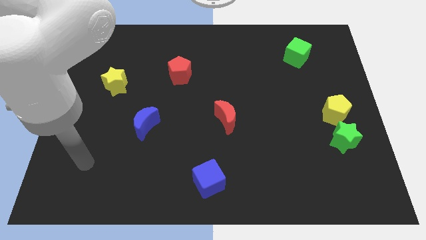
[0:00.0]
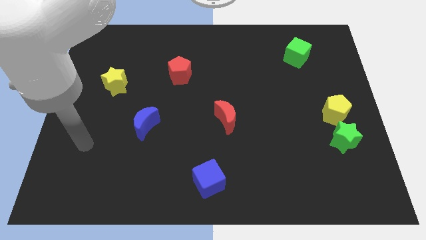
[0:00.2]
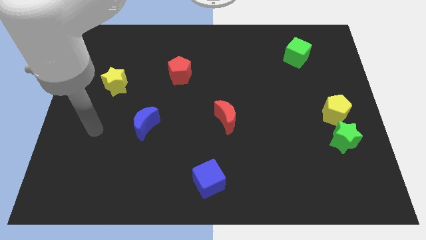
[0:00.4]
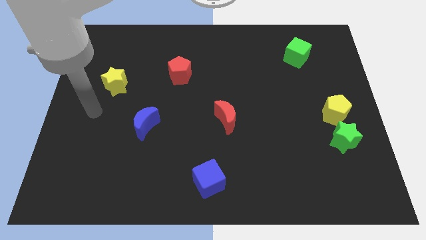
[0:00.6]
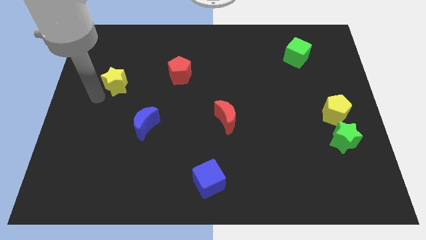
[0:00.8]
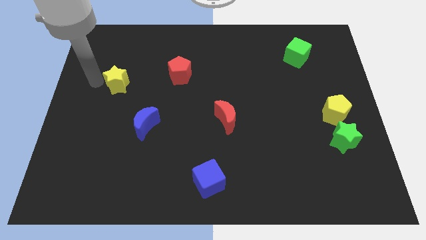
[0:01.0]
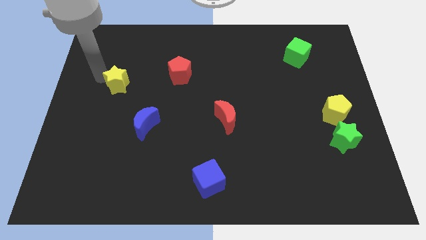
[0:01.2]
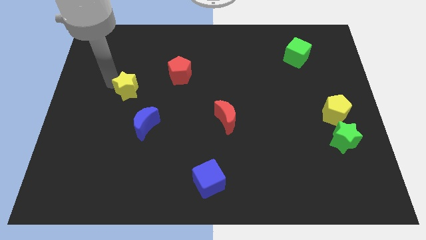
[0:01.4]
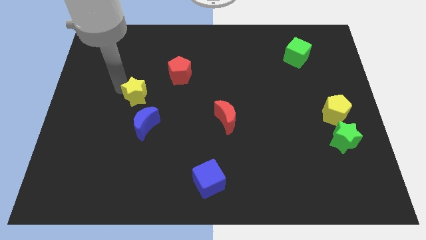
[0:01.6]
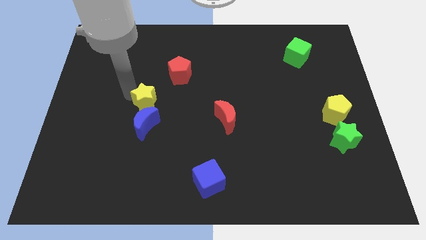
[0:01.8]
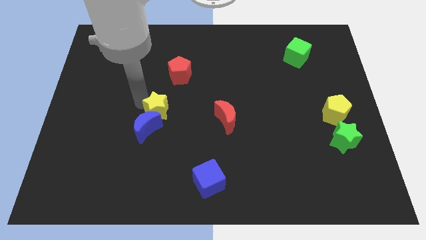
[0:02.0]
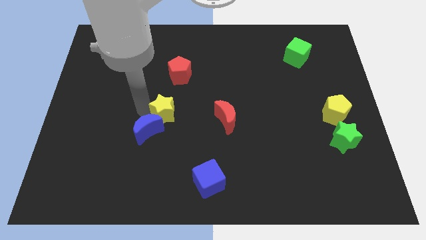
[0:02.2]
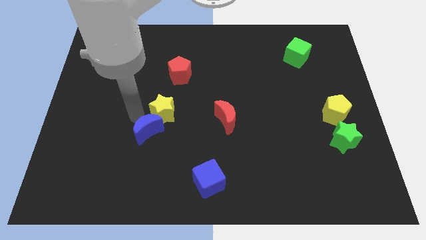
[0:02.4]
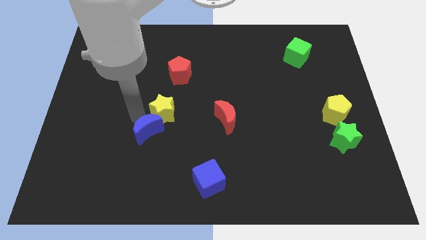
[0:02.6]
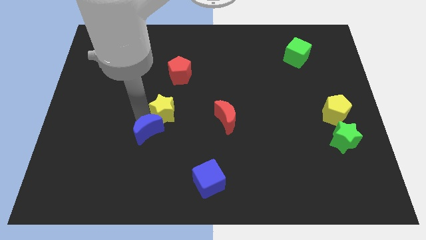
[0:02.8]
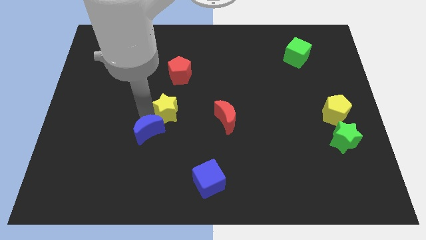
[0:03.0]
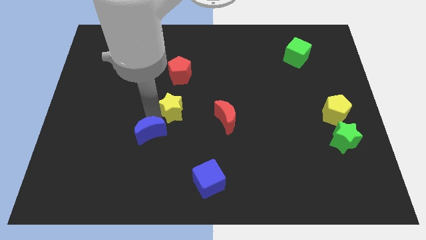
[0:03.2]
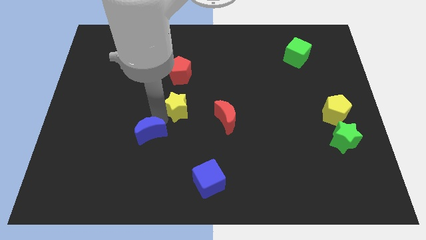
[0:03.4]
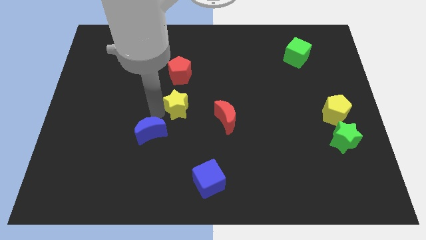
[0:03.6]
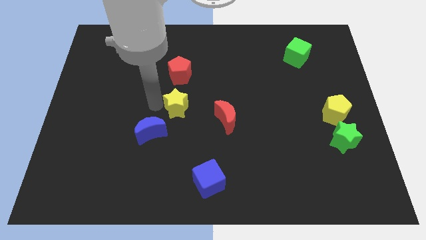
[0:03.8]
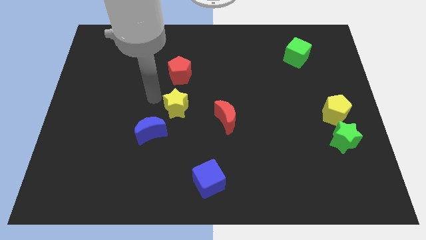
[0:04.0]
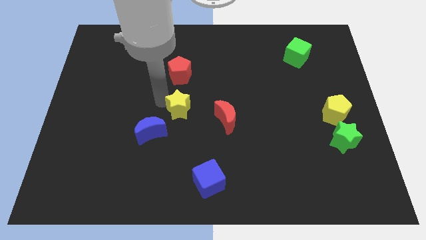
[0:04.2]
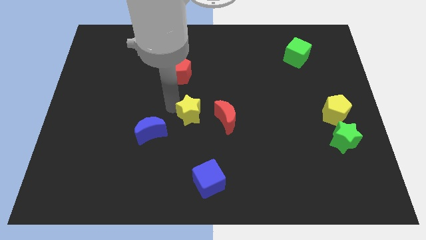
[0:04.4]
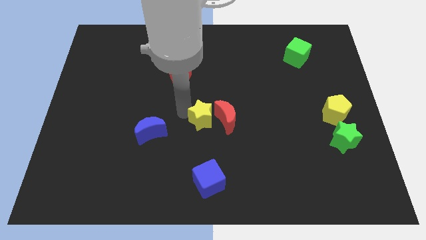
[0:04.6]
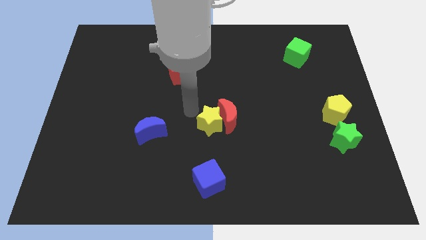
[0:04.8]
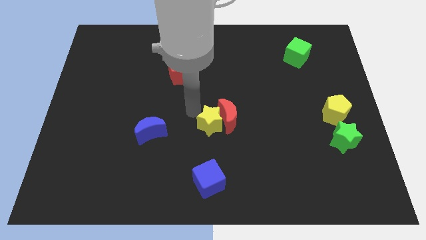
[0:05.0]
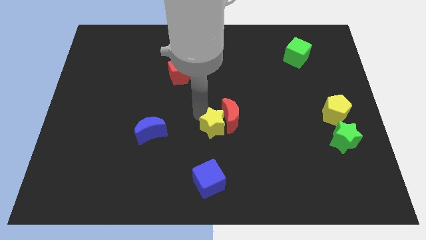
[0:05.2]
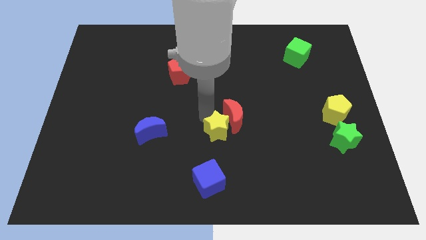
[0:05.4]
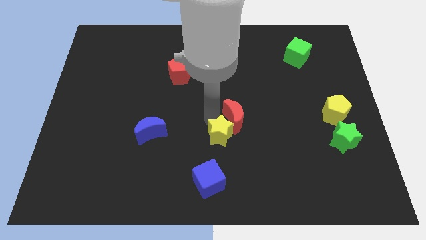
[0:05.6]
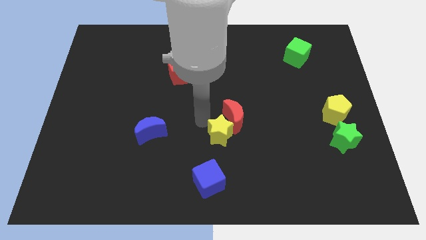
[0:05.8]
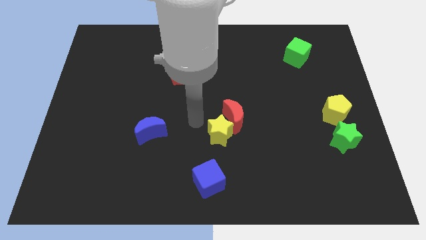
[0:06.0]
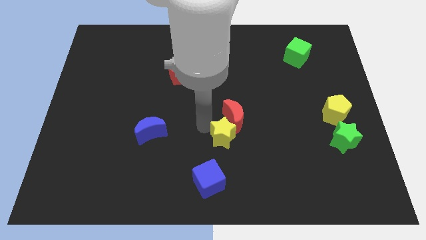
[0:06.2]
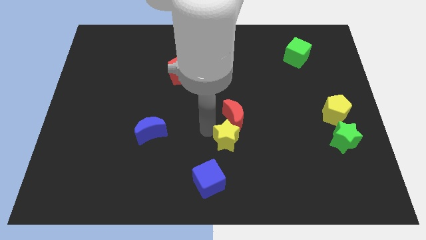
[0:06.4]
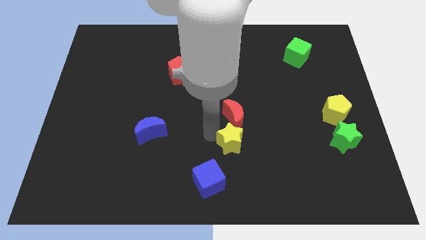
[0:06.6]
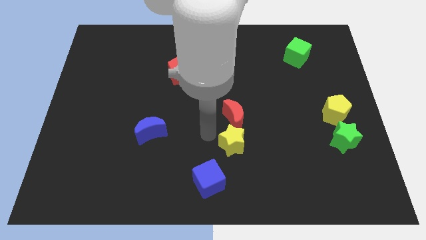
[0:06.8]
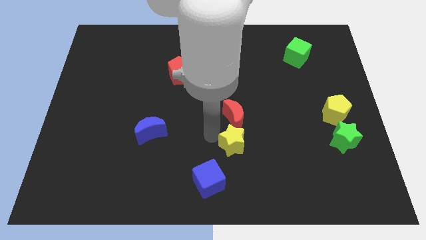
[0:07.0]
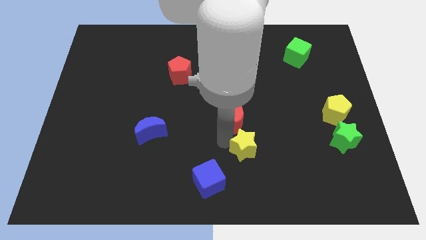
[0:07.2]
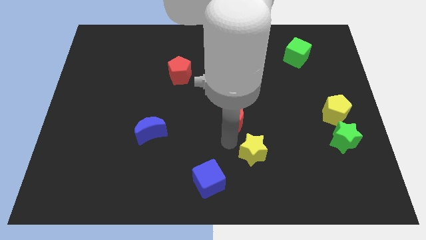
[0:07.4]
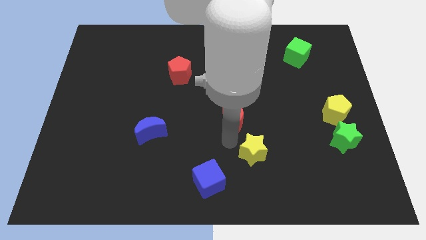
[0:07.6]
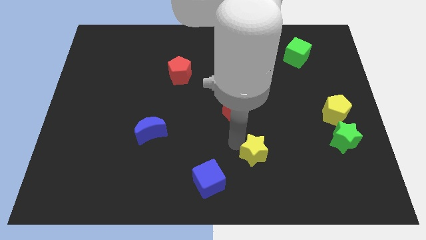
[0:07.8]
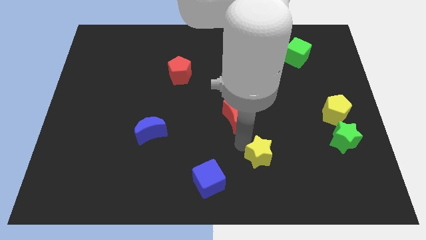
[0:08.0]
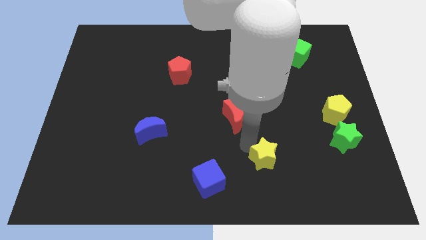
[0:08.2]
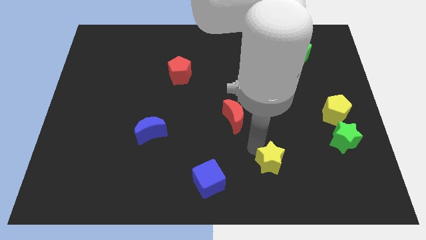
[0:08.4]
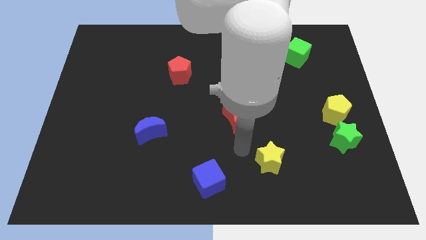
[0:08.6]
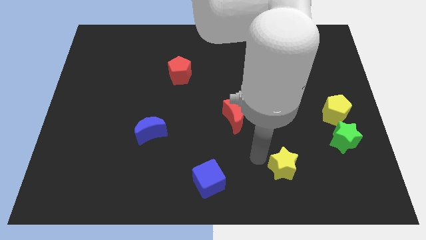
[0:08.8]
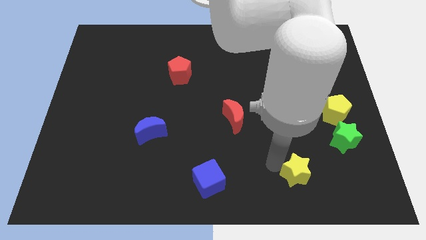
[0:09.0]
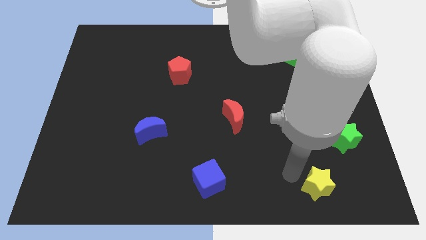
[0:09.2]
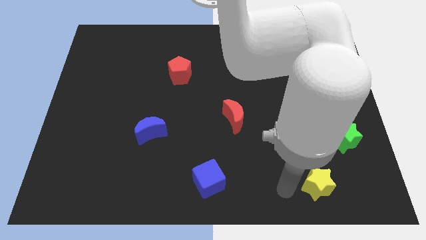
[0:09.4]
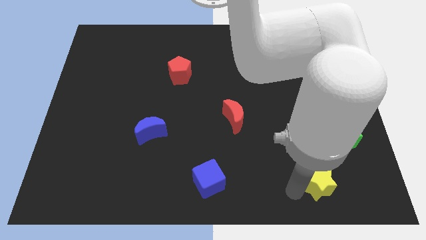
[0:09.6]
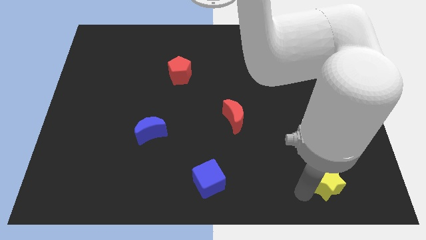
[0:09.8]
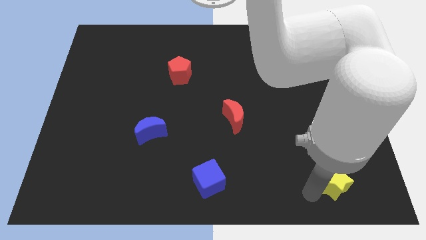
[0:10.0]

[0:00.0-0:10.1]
push the yellow star below the green star

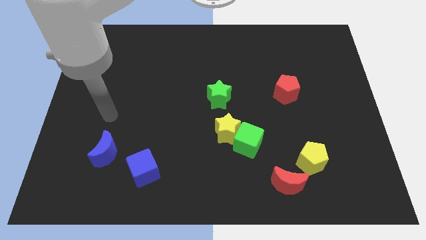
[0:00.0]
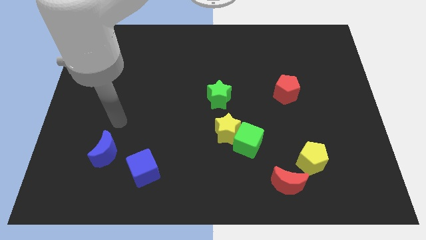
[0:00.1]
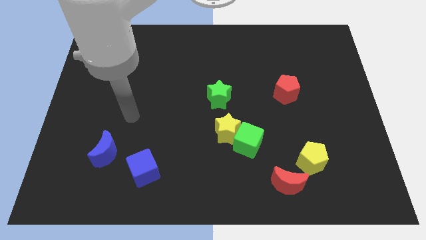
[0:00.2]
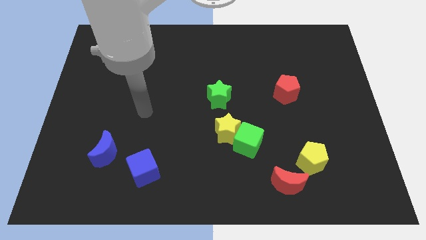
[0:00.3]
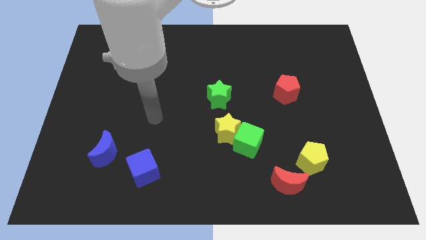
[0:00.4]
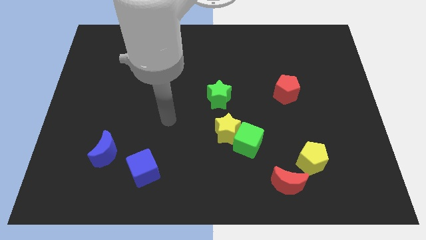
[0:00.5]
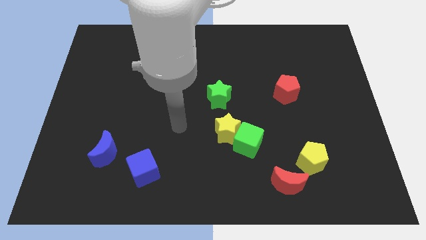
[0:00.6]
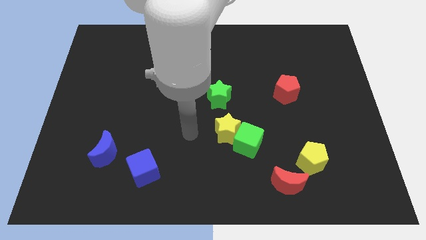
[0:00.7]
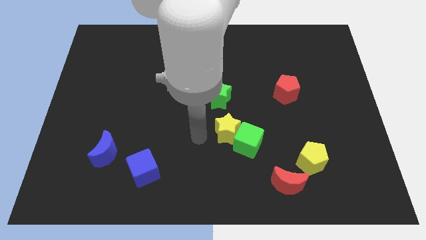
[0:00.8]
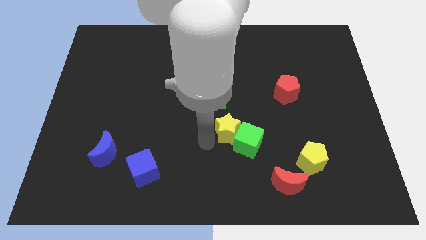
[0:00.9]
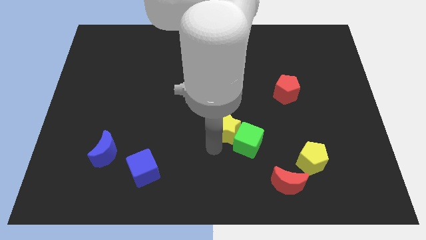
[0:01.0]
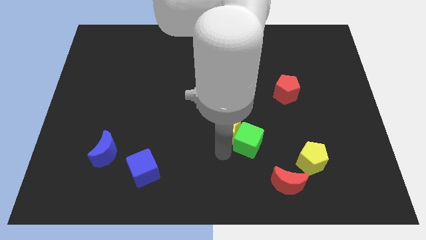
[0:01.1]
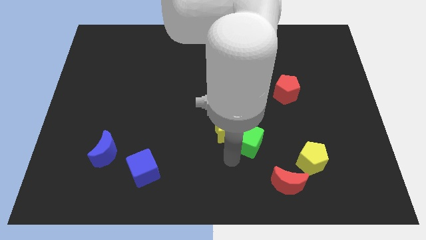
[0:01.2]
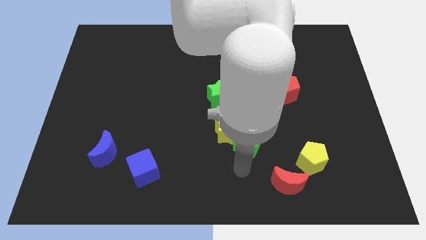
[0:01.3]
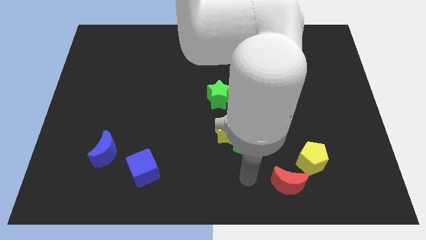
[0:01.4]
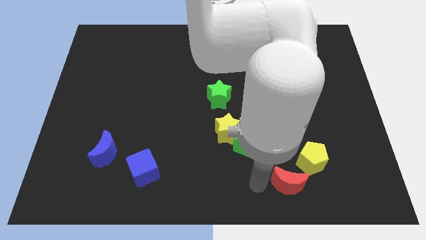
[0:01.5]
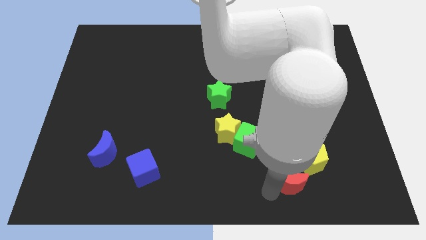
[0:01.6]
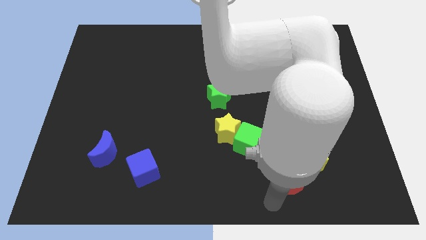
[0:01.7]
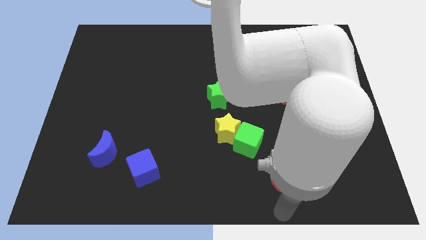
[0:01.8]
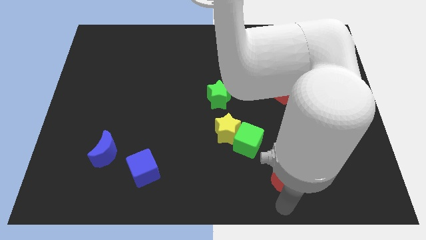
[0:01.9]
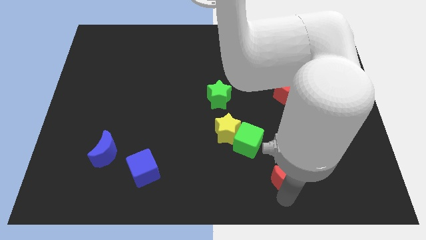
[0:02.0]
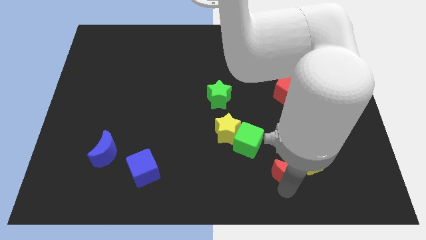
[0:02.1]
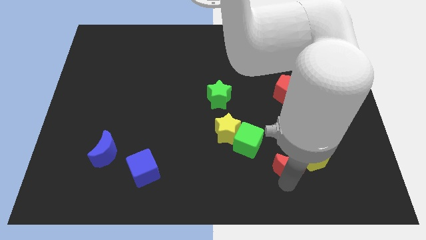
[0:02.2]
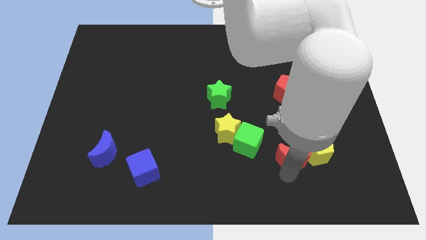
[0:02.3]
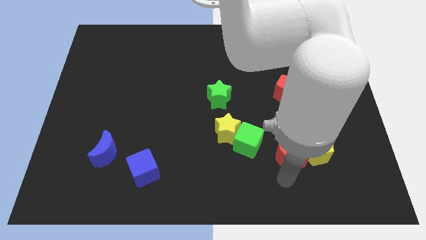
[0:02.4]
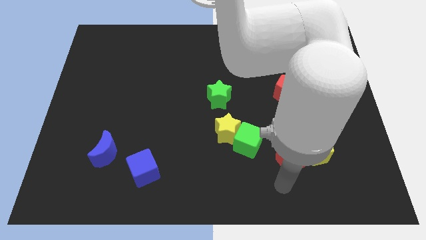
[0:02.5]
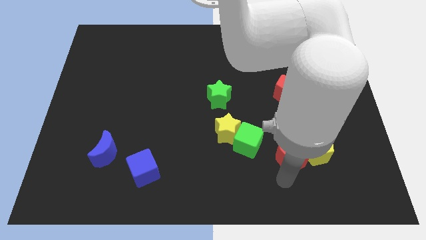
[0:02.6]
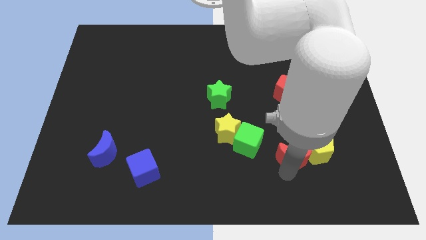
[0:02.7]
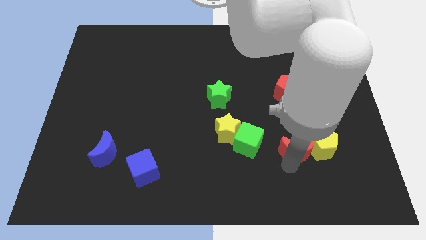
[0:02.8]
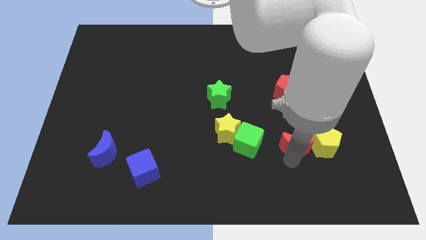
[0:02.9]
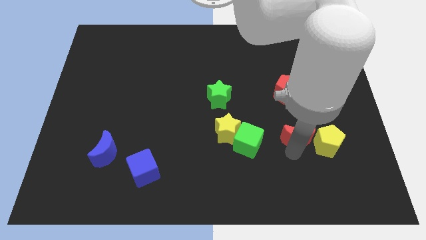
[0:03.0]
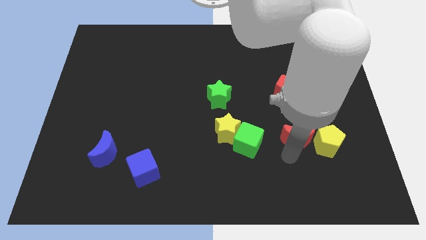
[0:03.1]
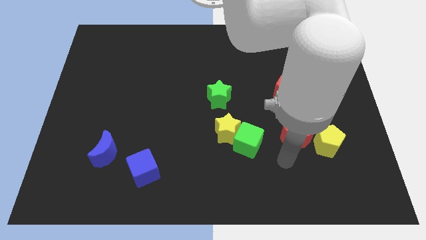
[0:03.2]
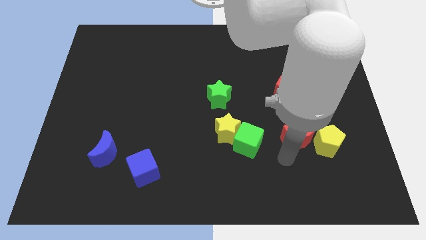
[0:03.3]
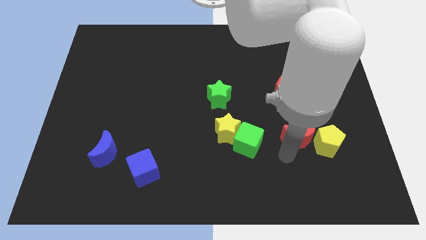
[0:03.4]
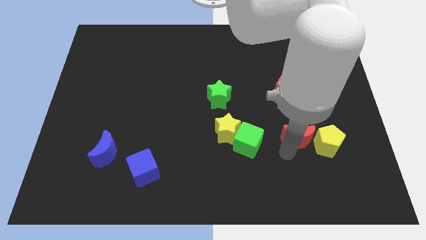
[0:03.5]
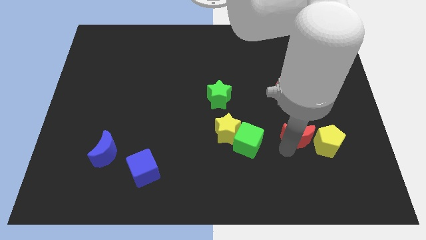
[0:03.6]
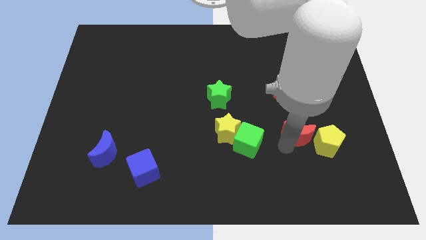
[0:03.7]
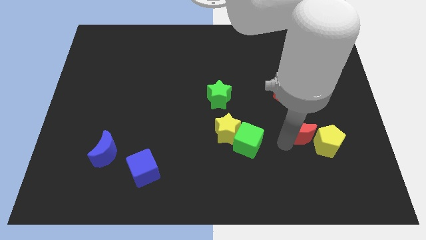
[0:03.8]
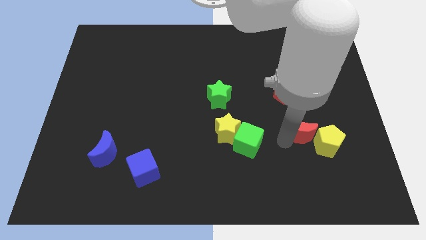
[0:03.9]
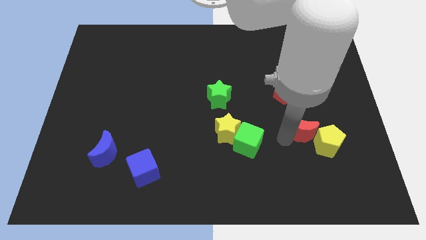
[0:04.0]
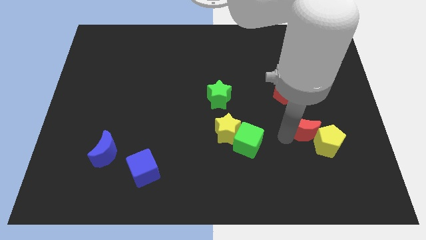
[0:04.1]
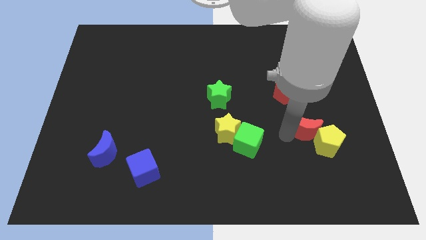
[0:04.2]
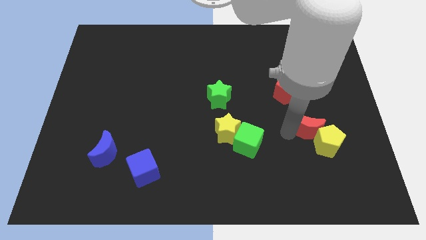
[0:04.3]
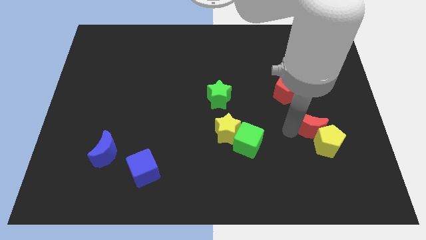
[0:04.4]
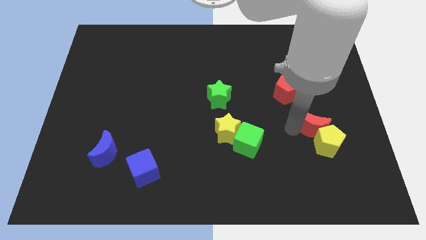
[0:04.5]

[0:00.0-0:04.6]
put the red moon to the bottom right side of the red pentagon
